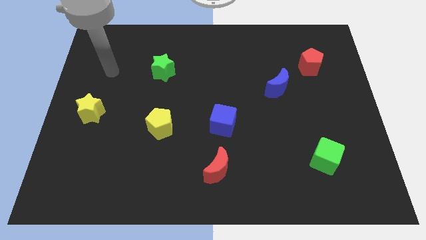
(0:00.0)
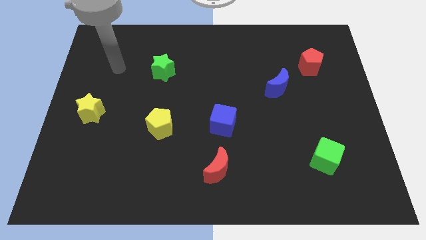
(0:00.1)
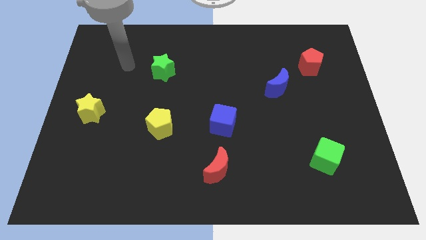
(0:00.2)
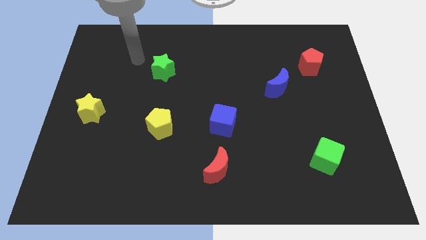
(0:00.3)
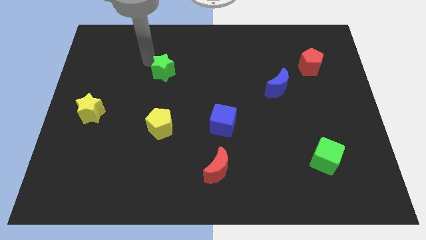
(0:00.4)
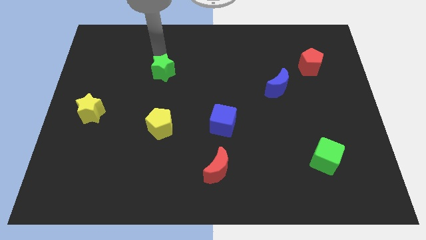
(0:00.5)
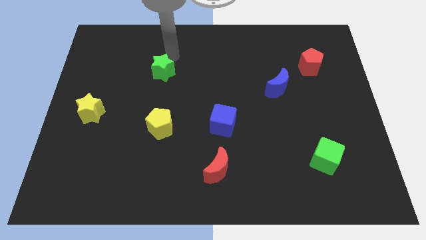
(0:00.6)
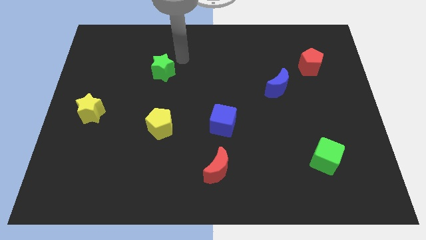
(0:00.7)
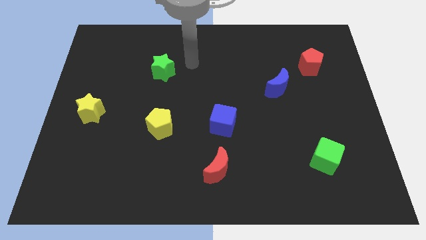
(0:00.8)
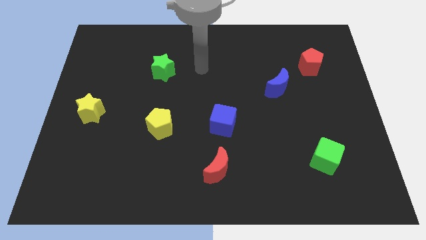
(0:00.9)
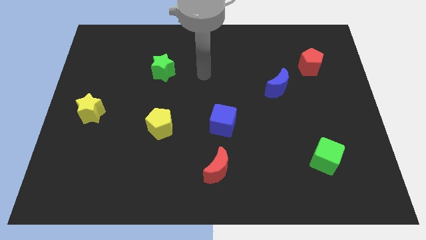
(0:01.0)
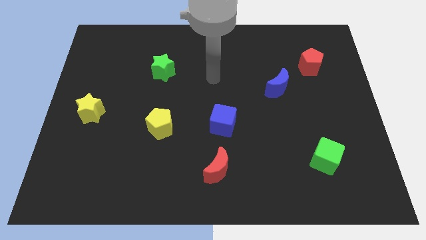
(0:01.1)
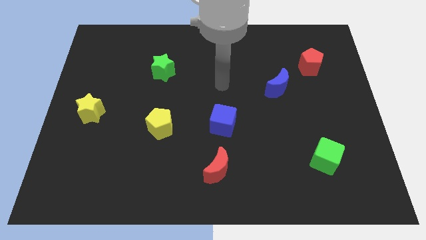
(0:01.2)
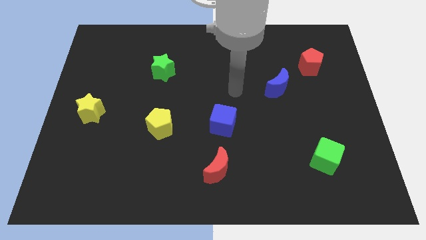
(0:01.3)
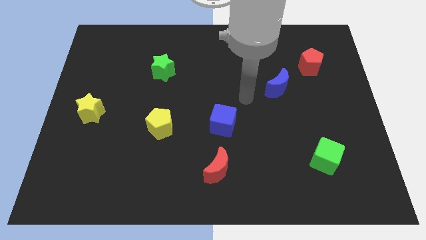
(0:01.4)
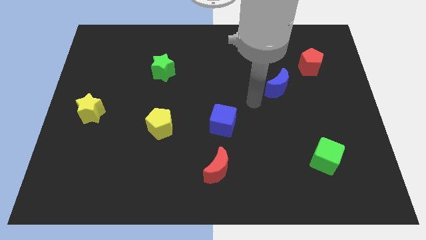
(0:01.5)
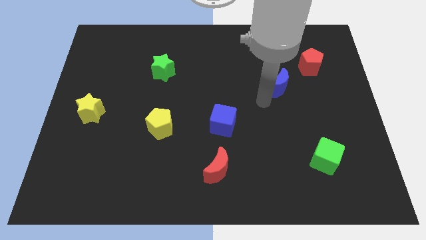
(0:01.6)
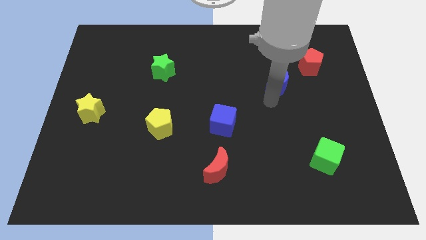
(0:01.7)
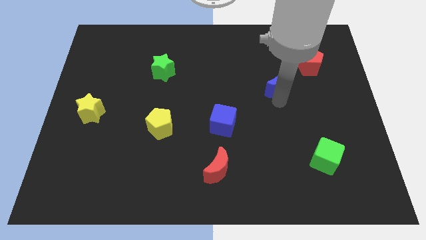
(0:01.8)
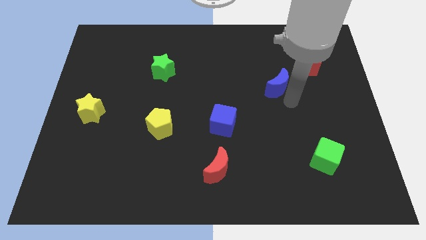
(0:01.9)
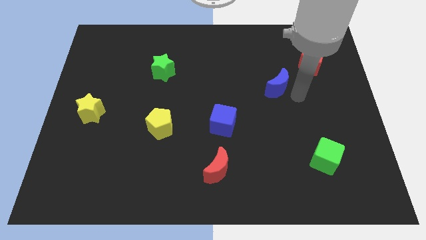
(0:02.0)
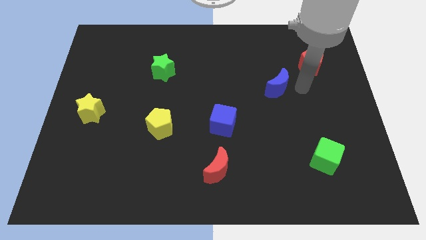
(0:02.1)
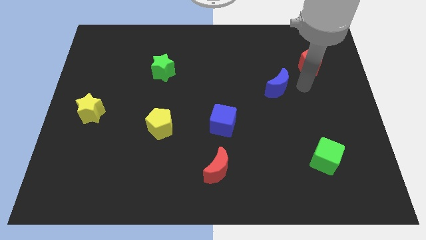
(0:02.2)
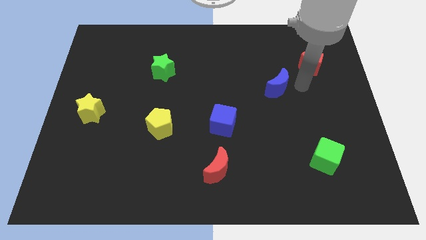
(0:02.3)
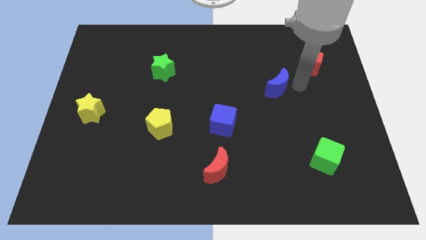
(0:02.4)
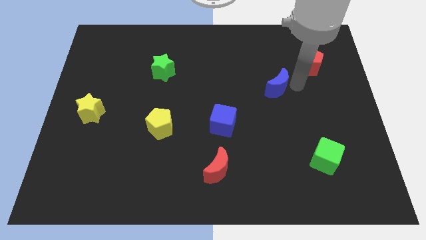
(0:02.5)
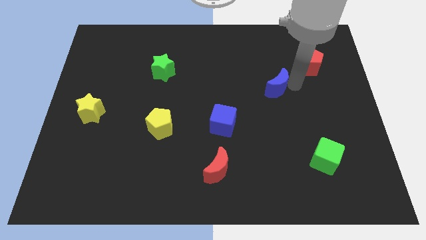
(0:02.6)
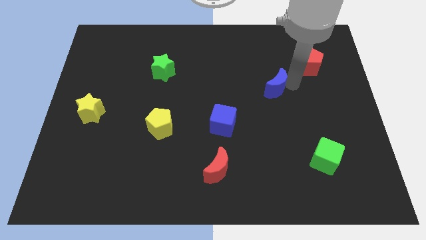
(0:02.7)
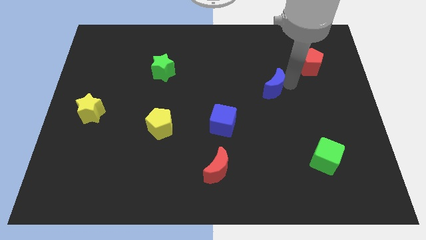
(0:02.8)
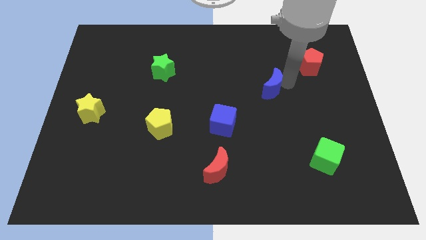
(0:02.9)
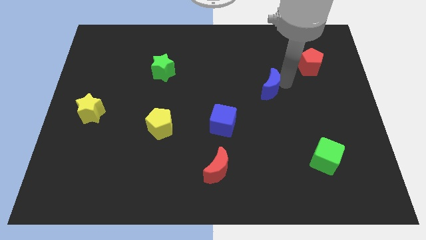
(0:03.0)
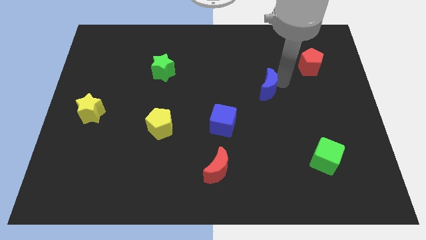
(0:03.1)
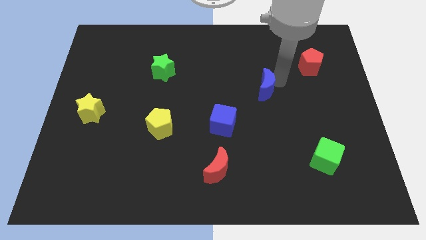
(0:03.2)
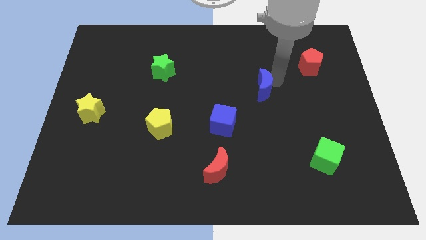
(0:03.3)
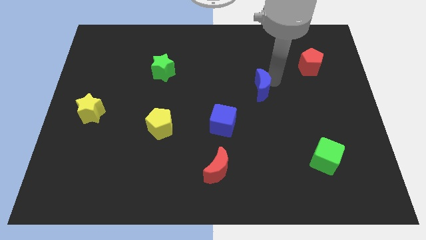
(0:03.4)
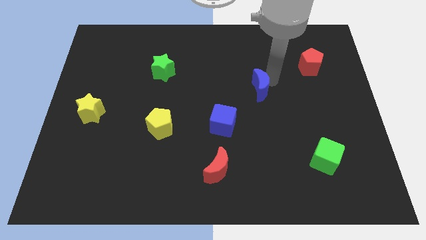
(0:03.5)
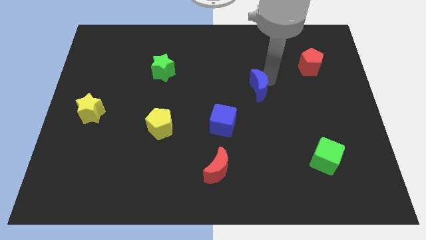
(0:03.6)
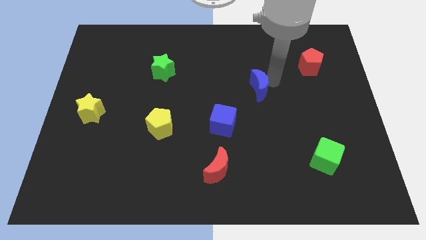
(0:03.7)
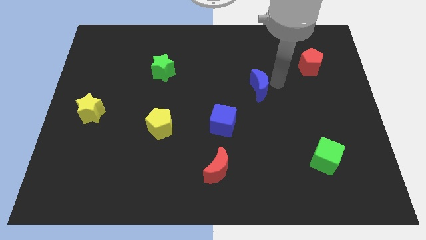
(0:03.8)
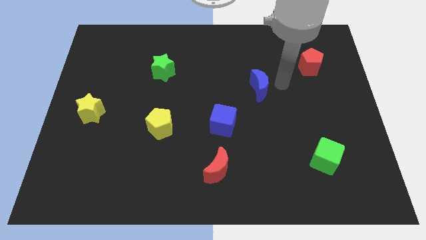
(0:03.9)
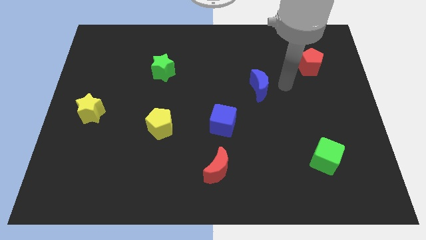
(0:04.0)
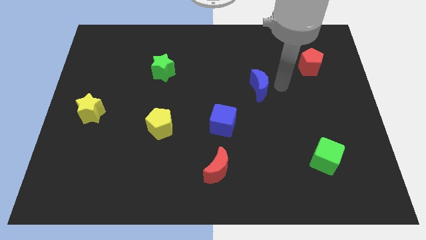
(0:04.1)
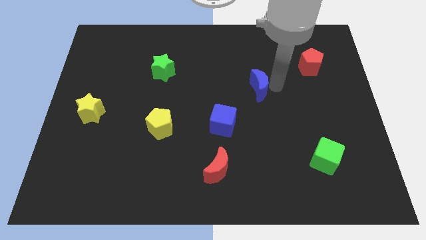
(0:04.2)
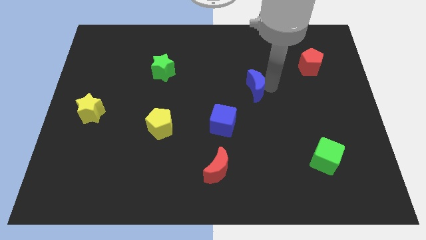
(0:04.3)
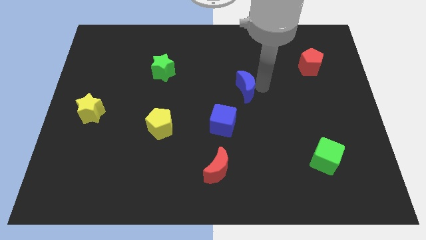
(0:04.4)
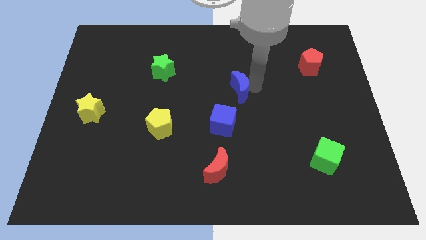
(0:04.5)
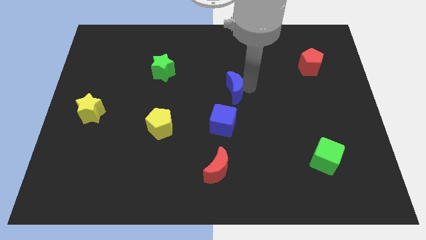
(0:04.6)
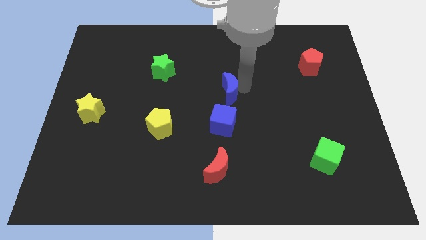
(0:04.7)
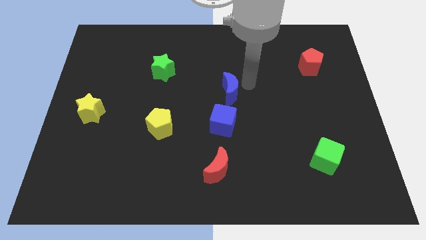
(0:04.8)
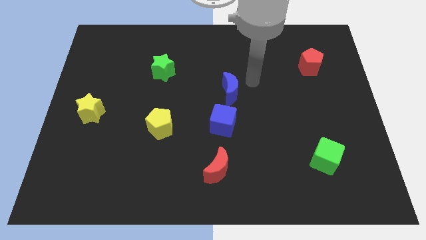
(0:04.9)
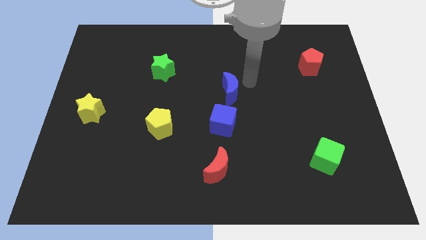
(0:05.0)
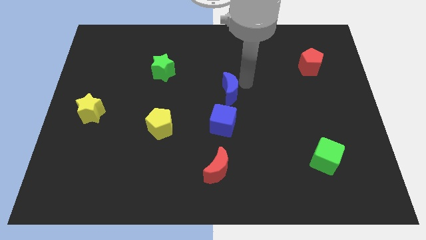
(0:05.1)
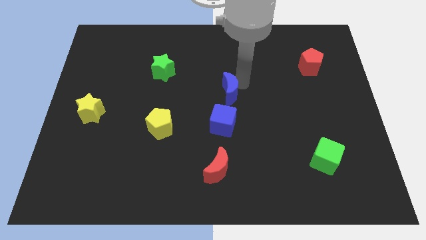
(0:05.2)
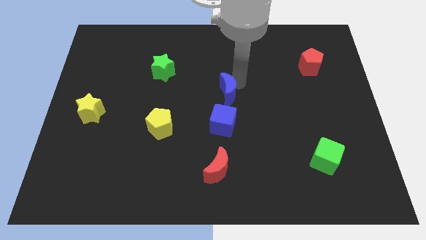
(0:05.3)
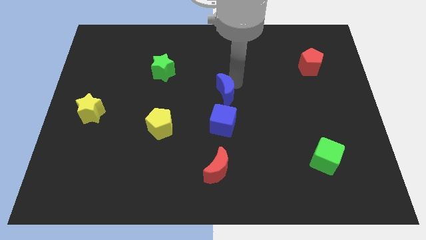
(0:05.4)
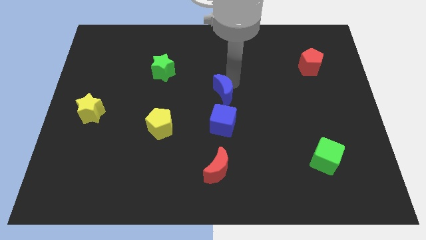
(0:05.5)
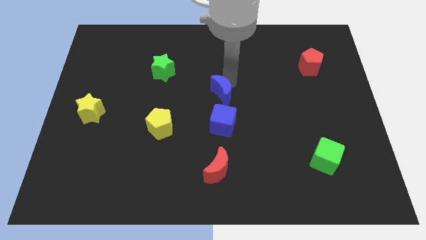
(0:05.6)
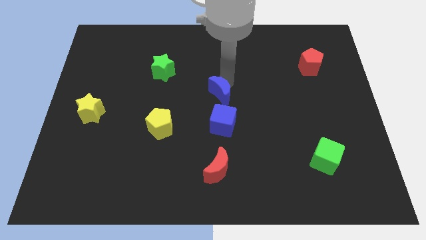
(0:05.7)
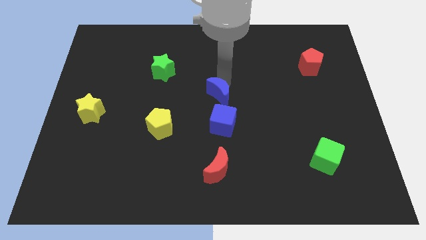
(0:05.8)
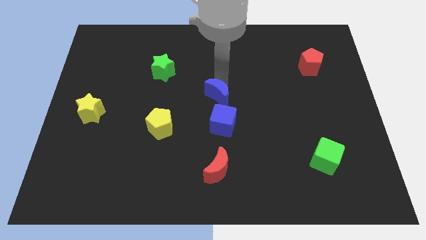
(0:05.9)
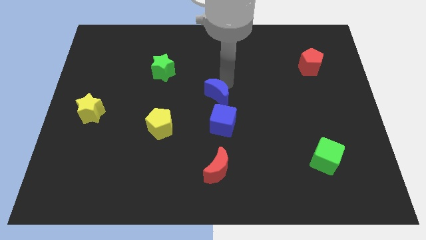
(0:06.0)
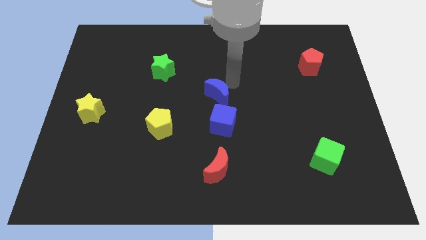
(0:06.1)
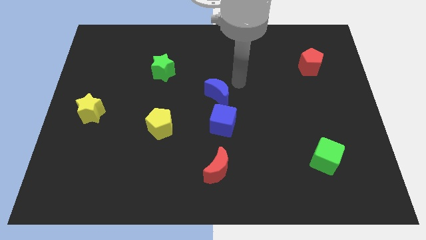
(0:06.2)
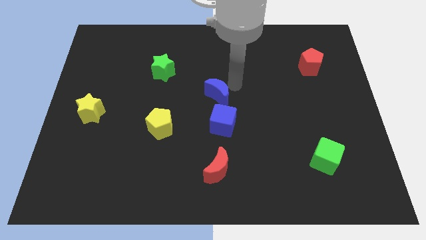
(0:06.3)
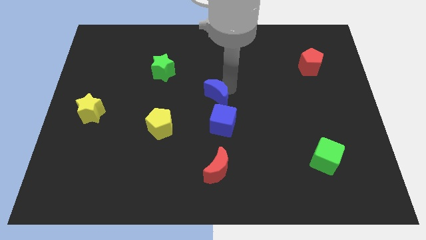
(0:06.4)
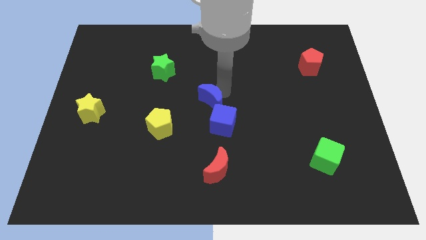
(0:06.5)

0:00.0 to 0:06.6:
put the blue moon to the top left side of the blue cube

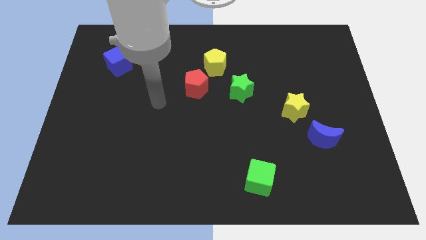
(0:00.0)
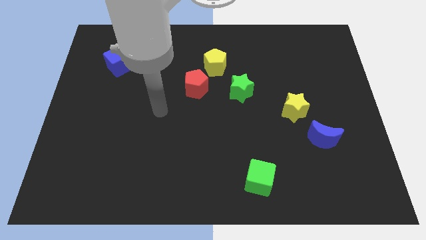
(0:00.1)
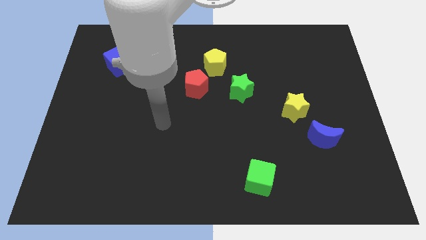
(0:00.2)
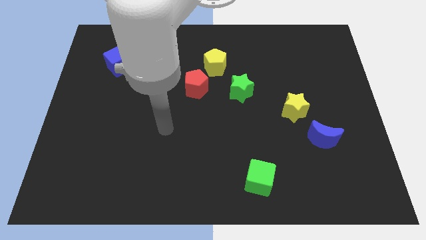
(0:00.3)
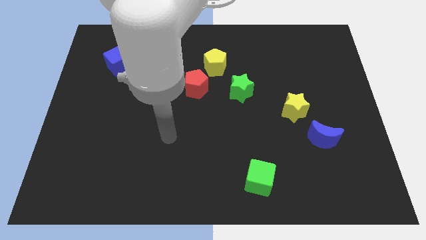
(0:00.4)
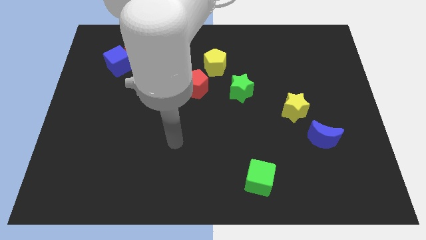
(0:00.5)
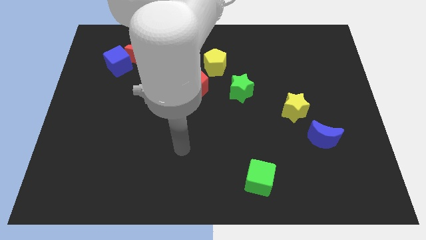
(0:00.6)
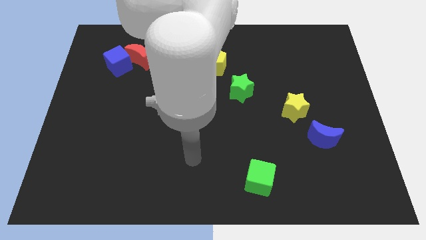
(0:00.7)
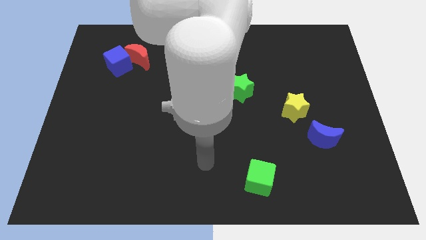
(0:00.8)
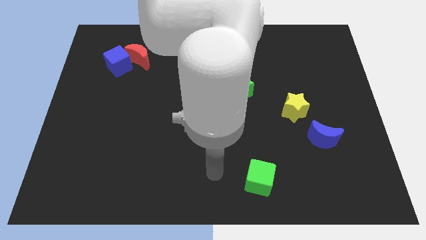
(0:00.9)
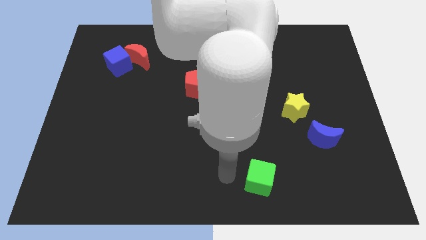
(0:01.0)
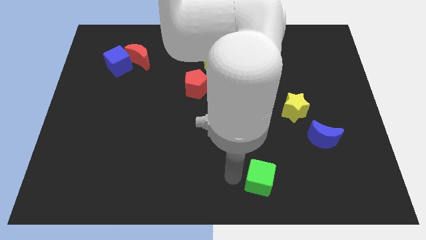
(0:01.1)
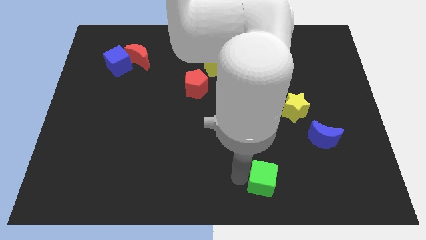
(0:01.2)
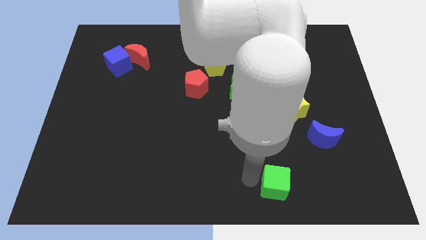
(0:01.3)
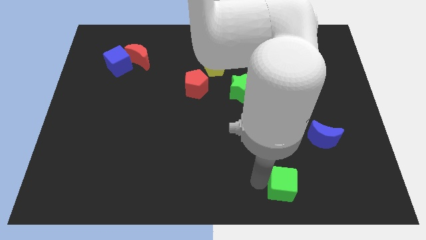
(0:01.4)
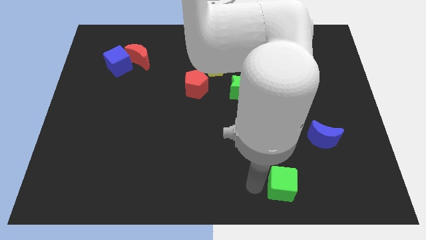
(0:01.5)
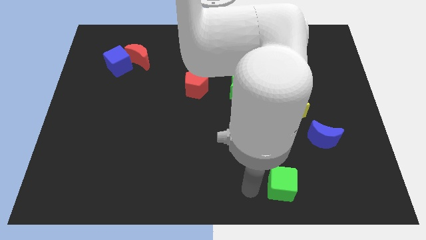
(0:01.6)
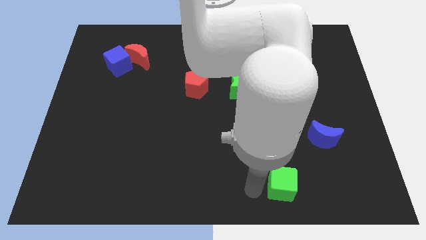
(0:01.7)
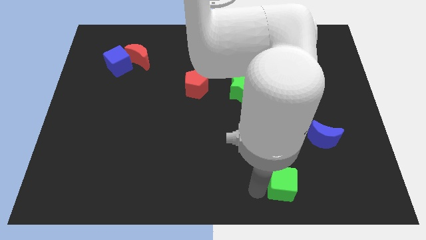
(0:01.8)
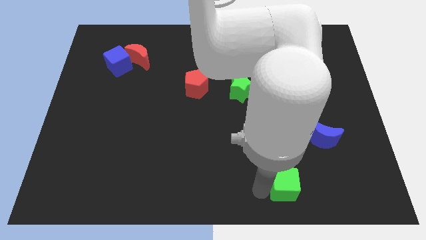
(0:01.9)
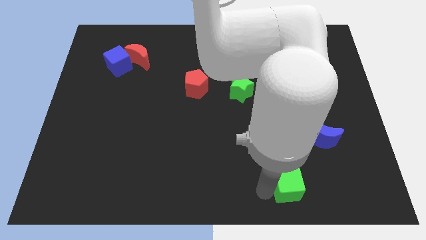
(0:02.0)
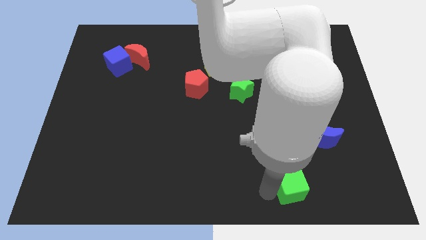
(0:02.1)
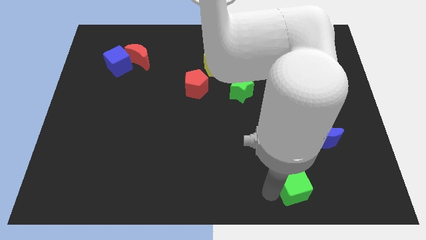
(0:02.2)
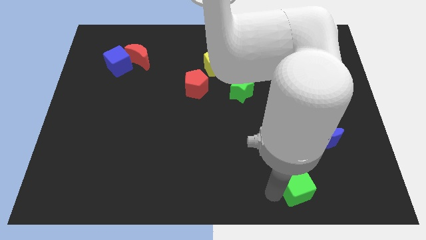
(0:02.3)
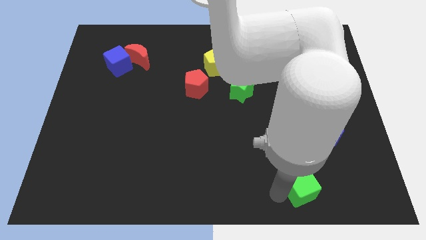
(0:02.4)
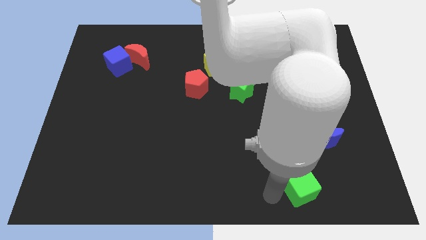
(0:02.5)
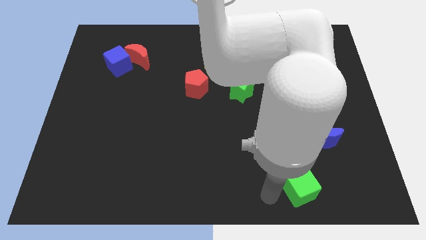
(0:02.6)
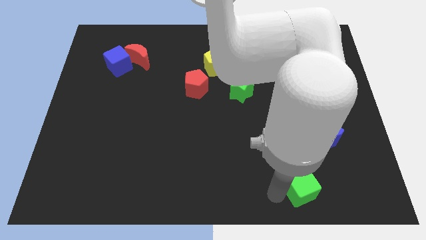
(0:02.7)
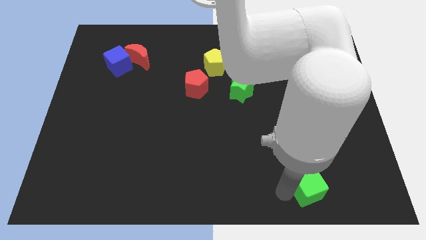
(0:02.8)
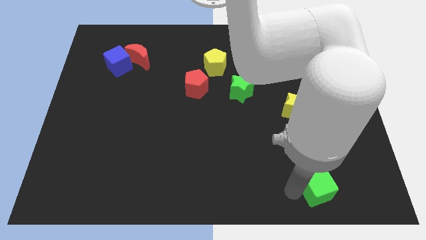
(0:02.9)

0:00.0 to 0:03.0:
move the green cube below the blue moon
